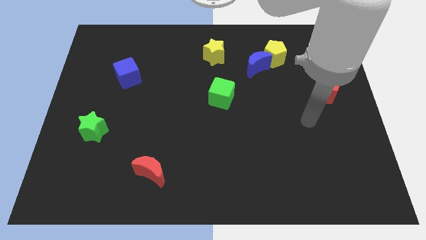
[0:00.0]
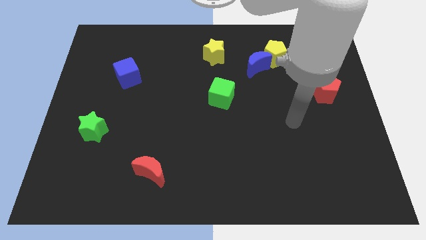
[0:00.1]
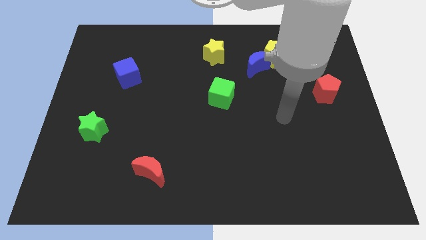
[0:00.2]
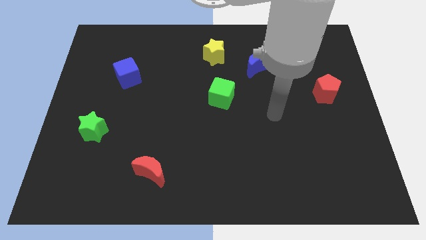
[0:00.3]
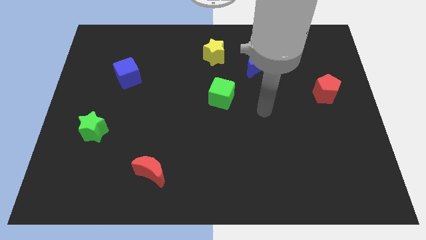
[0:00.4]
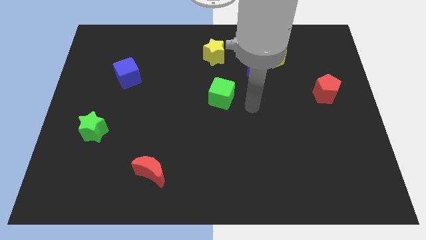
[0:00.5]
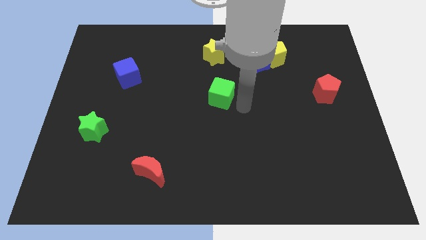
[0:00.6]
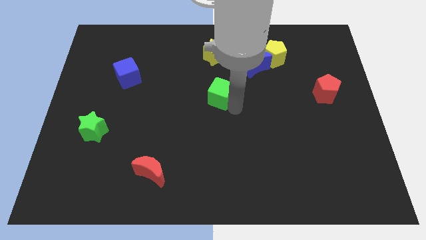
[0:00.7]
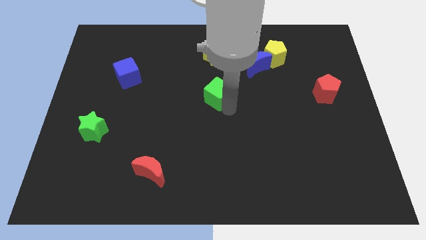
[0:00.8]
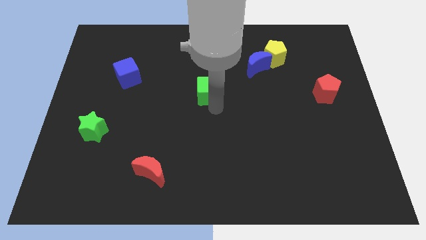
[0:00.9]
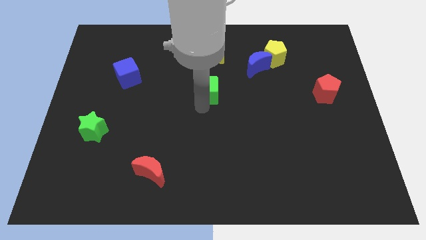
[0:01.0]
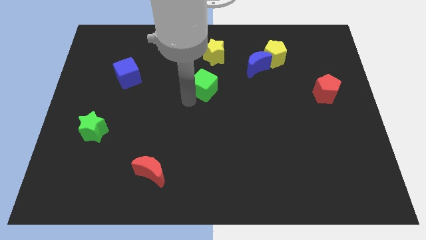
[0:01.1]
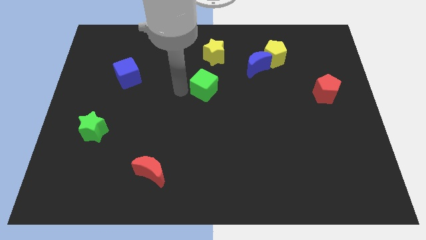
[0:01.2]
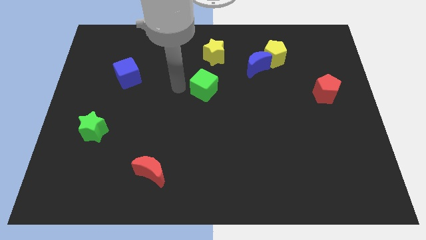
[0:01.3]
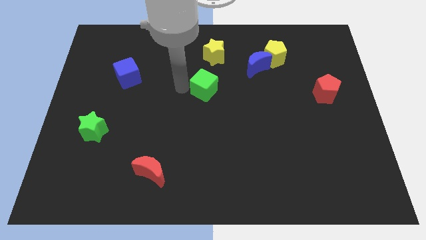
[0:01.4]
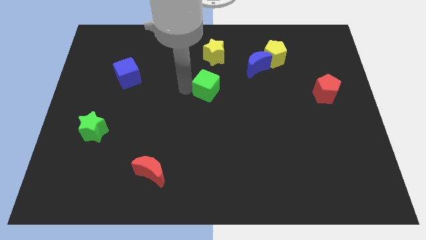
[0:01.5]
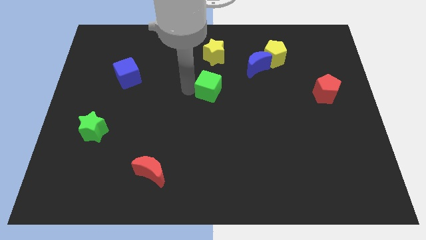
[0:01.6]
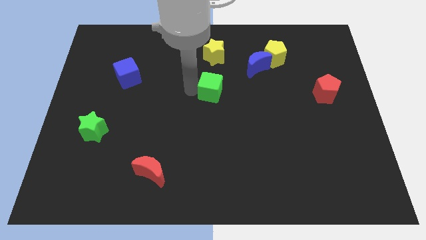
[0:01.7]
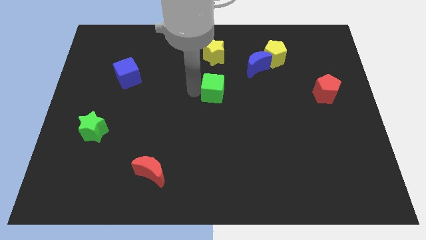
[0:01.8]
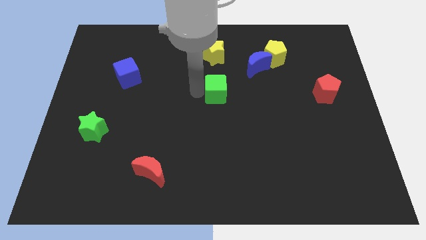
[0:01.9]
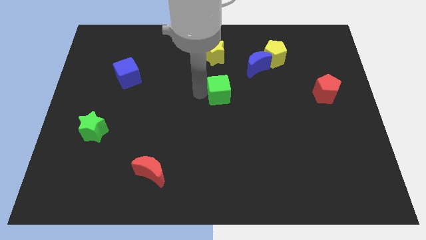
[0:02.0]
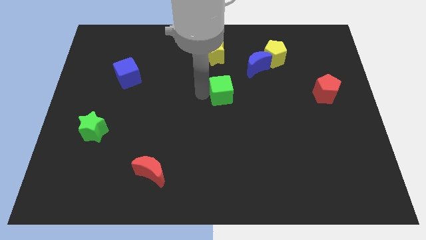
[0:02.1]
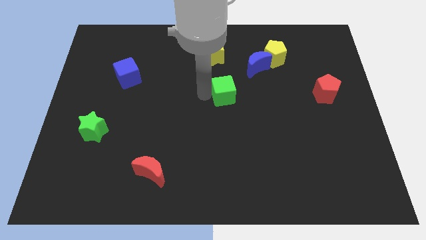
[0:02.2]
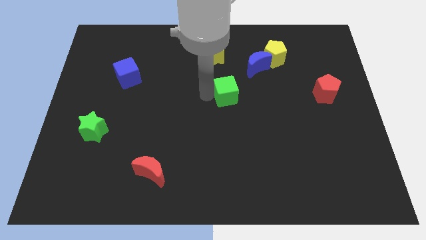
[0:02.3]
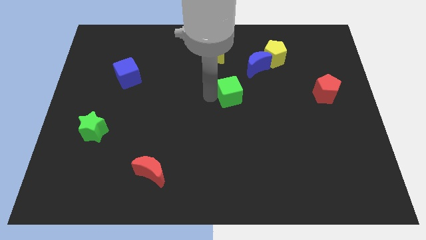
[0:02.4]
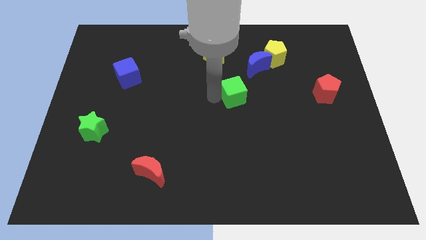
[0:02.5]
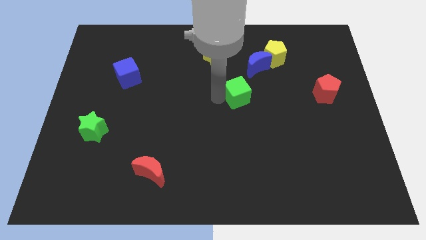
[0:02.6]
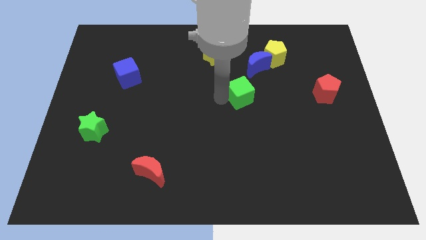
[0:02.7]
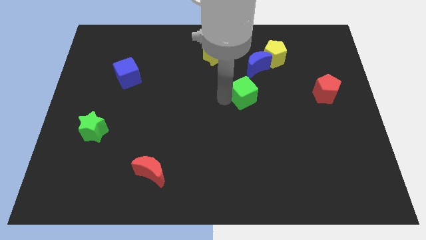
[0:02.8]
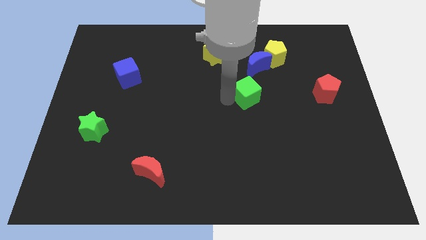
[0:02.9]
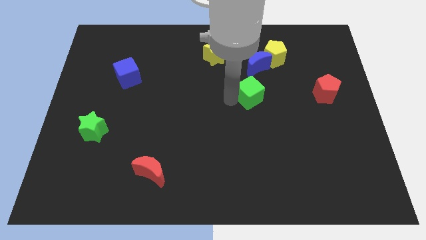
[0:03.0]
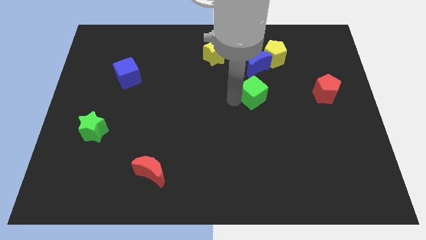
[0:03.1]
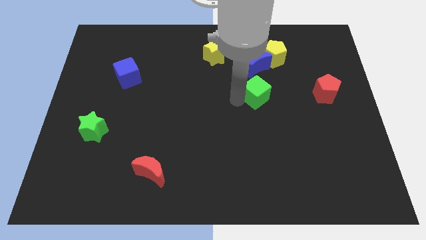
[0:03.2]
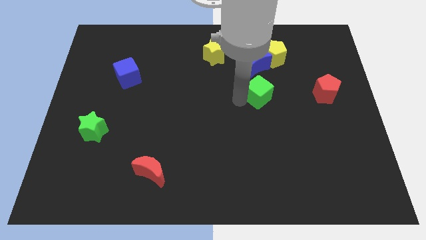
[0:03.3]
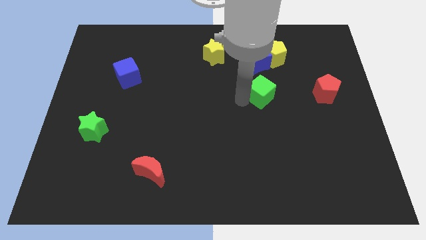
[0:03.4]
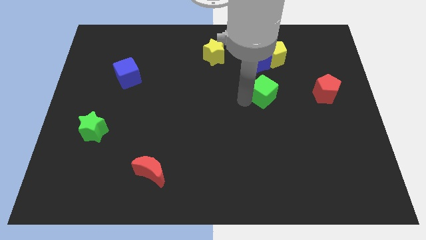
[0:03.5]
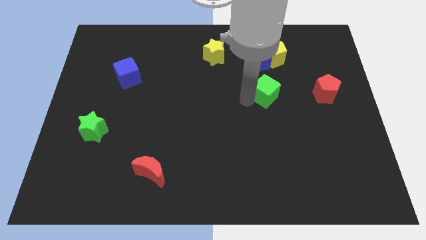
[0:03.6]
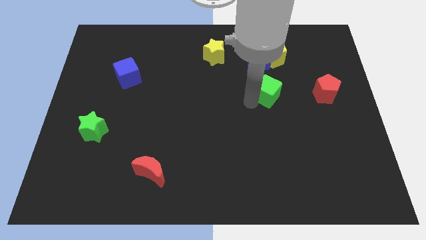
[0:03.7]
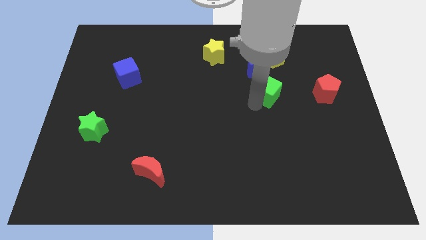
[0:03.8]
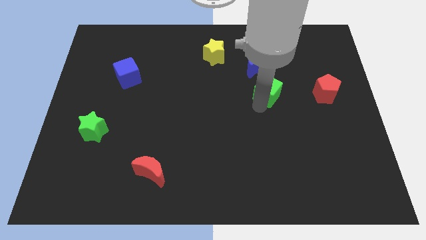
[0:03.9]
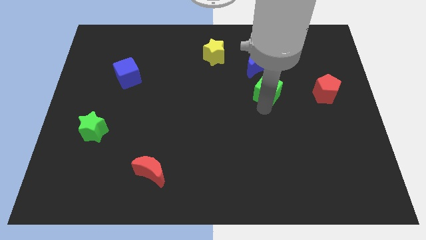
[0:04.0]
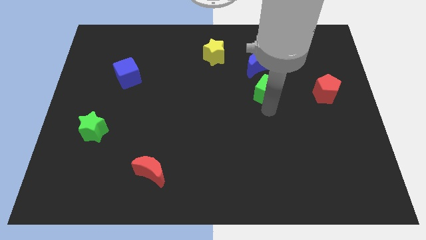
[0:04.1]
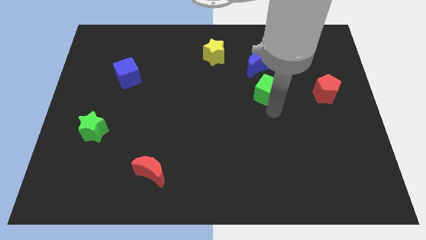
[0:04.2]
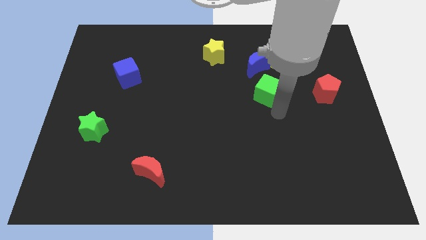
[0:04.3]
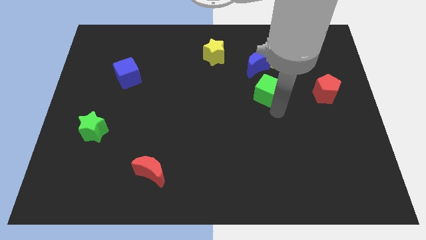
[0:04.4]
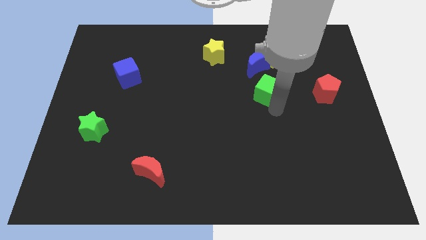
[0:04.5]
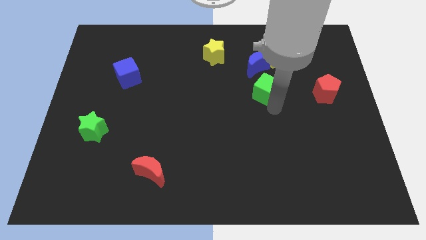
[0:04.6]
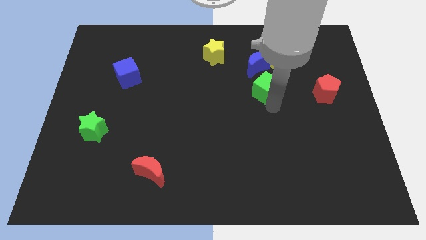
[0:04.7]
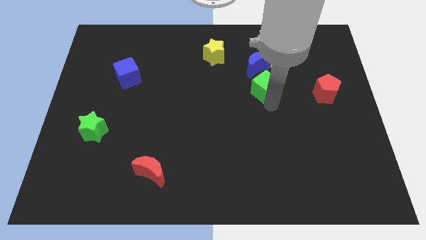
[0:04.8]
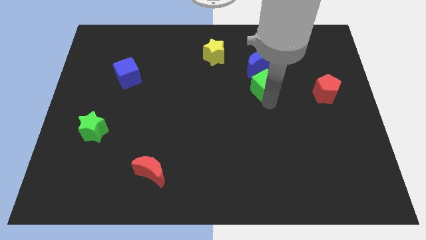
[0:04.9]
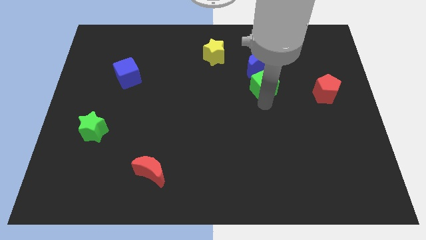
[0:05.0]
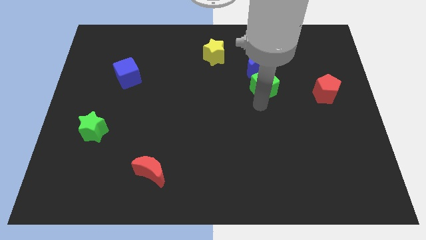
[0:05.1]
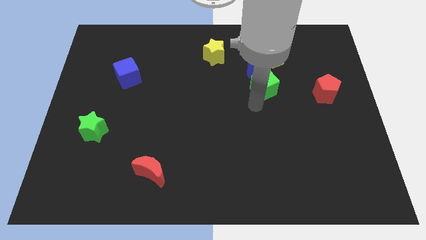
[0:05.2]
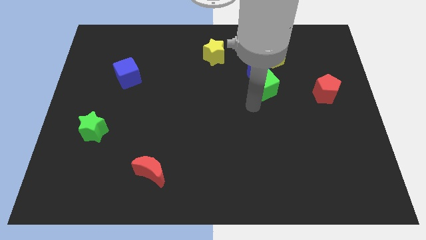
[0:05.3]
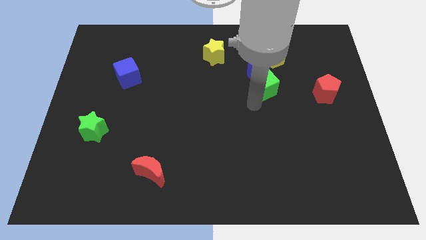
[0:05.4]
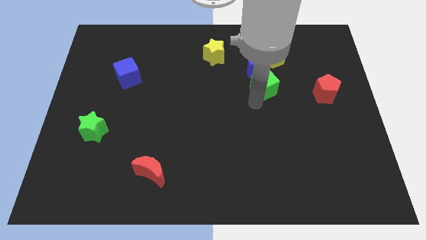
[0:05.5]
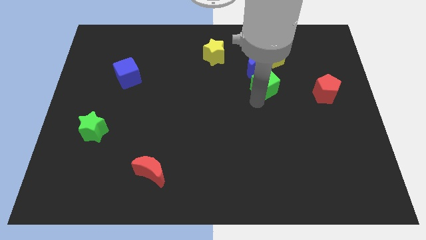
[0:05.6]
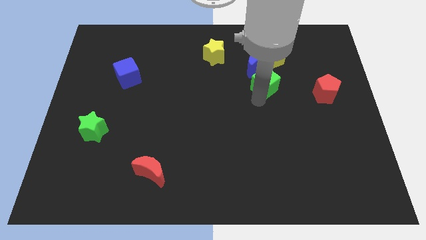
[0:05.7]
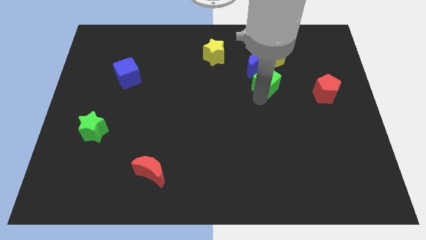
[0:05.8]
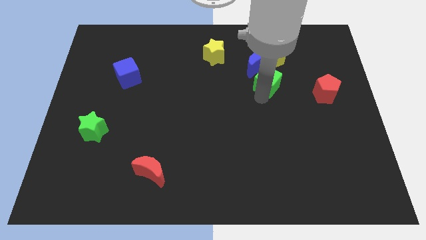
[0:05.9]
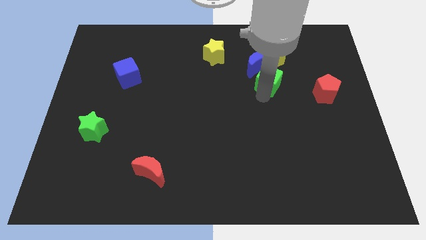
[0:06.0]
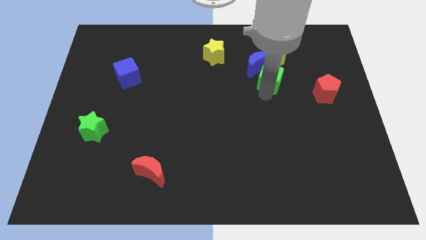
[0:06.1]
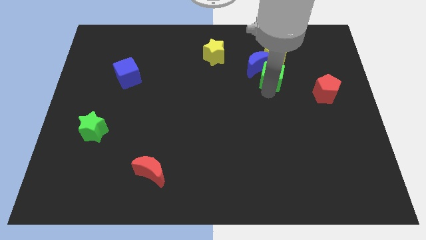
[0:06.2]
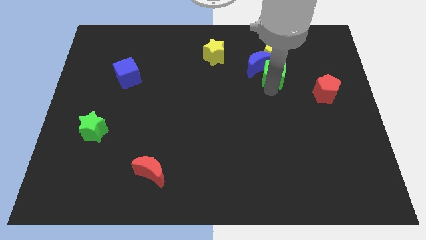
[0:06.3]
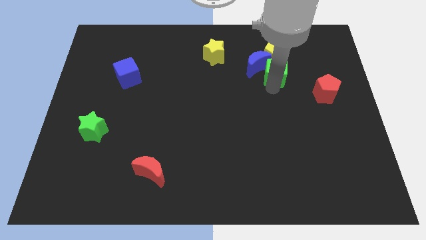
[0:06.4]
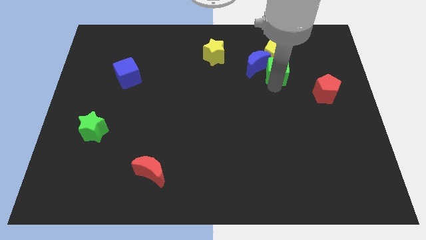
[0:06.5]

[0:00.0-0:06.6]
put the green cube to the yellow pentagon

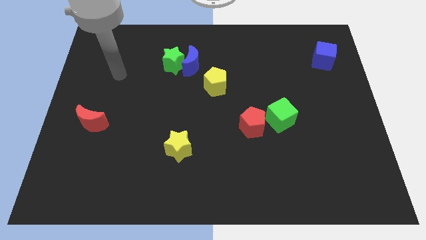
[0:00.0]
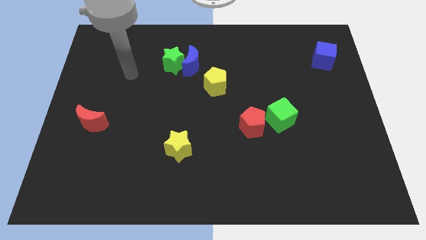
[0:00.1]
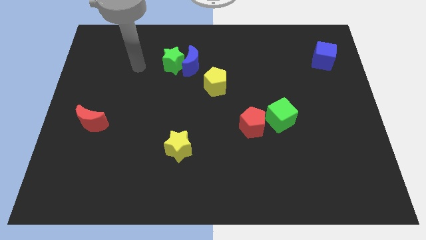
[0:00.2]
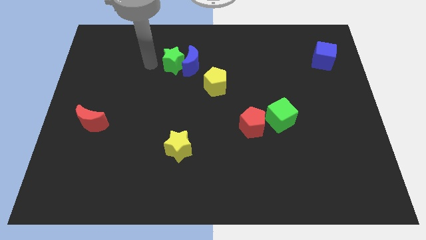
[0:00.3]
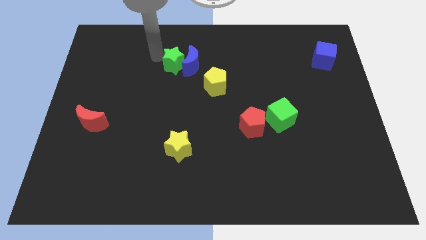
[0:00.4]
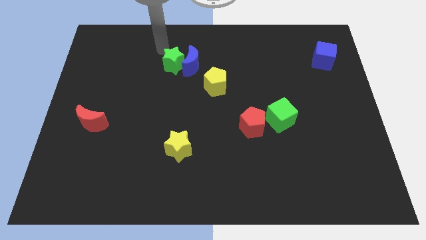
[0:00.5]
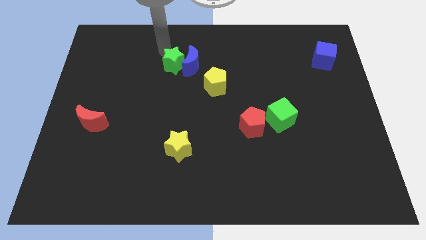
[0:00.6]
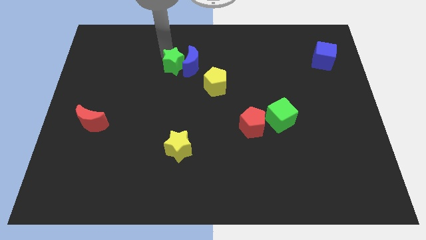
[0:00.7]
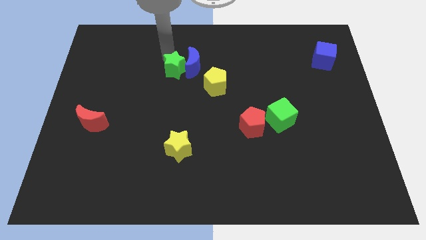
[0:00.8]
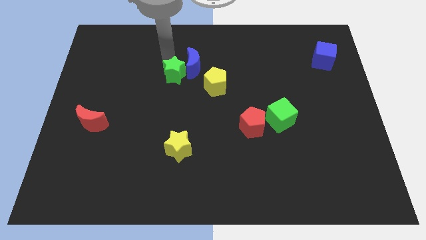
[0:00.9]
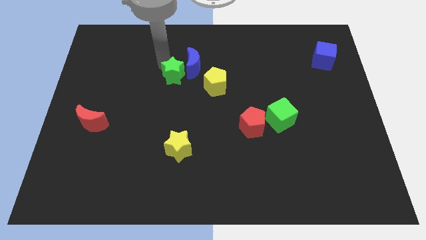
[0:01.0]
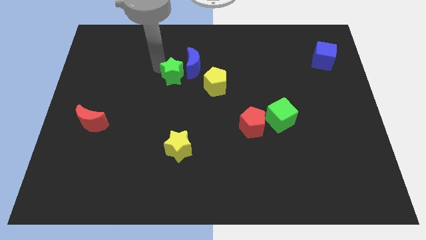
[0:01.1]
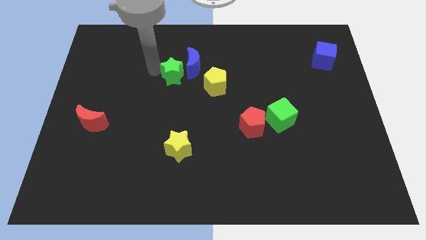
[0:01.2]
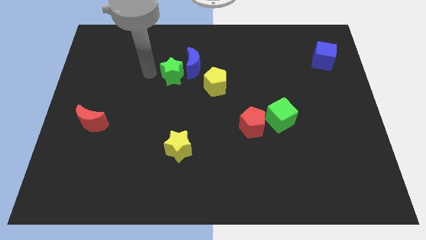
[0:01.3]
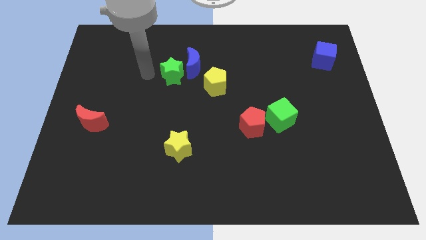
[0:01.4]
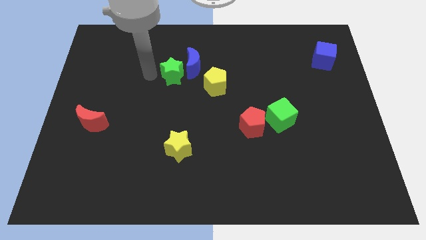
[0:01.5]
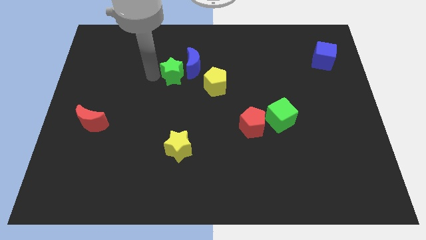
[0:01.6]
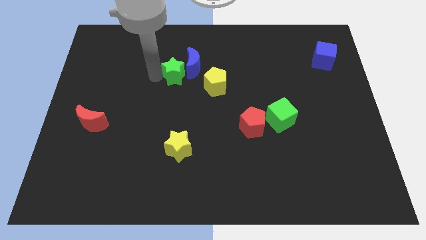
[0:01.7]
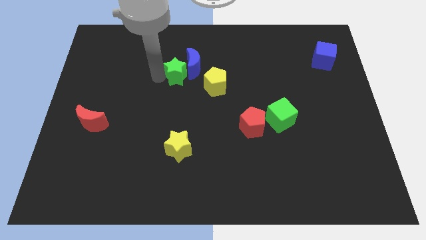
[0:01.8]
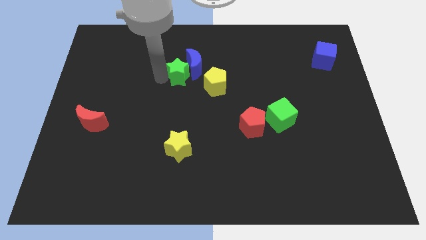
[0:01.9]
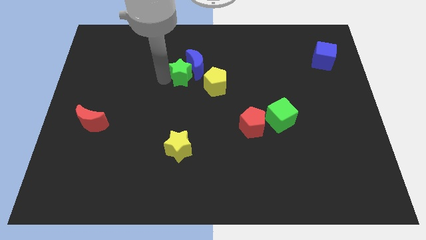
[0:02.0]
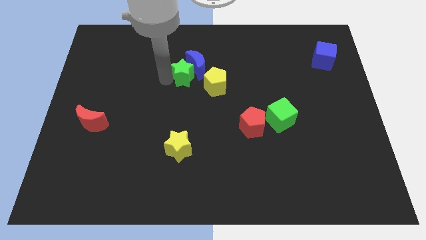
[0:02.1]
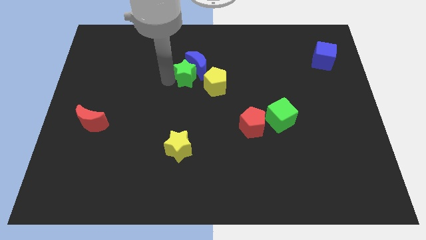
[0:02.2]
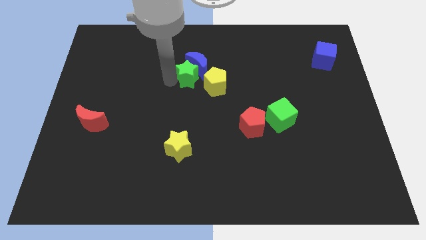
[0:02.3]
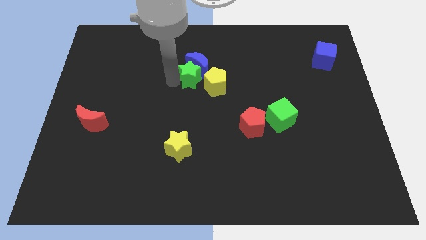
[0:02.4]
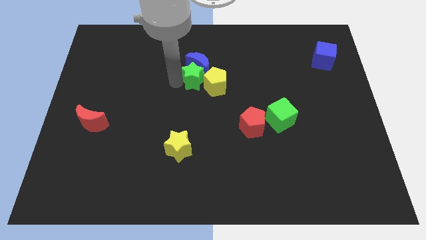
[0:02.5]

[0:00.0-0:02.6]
move the green star towards the yellow pentagon
